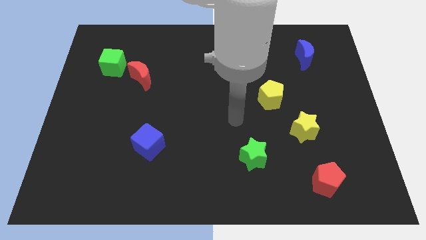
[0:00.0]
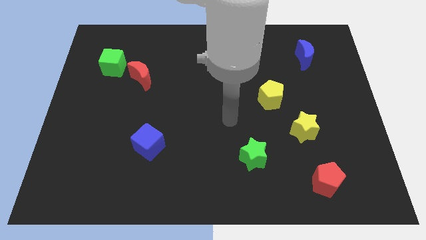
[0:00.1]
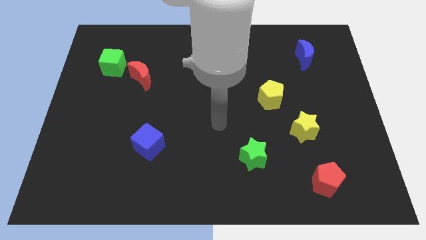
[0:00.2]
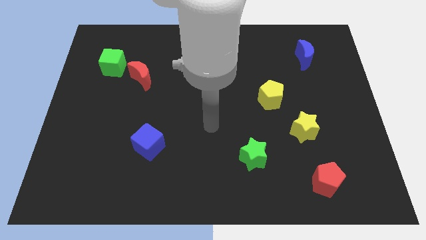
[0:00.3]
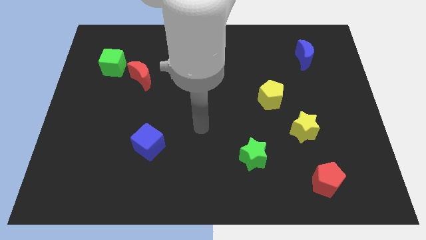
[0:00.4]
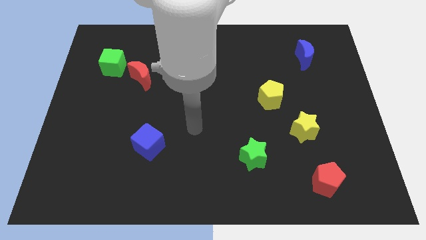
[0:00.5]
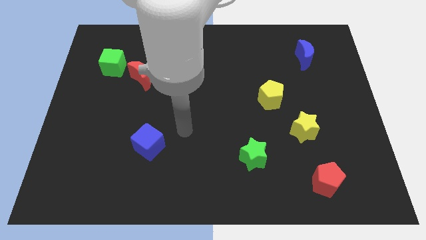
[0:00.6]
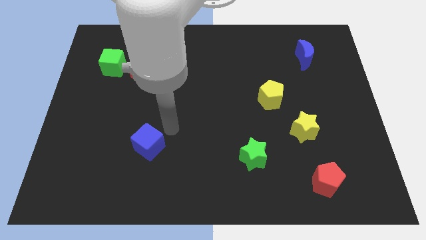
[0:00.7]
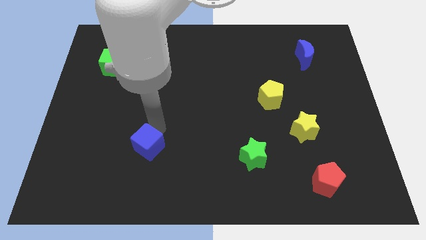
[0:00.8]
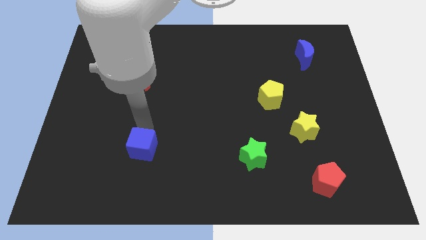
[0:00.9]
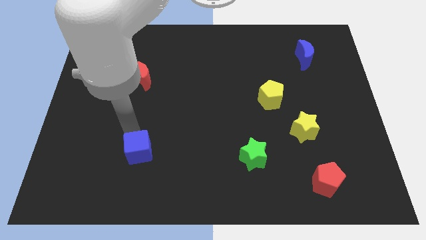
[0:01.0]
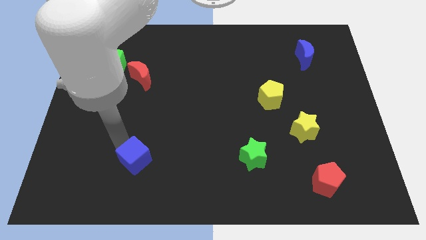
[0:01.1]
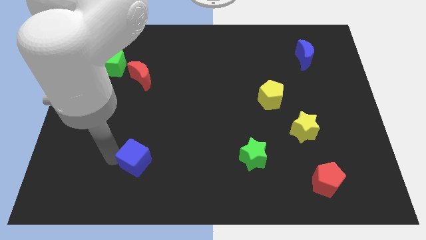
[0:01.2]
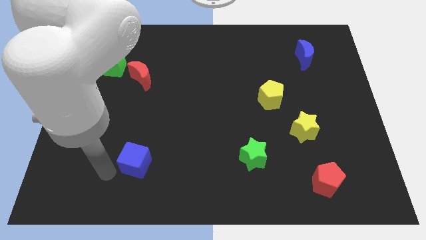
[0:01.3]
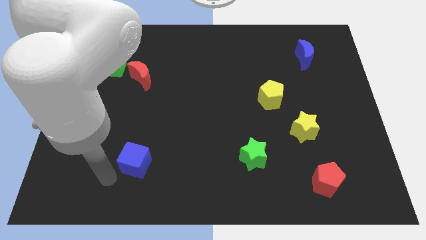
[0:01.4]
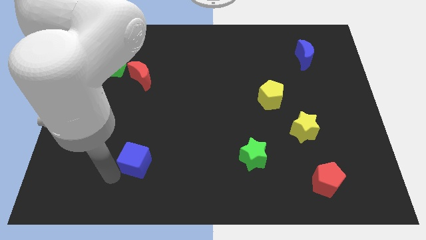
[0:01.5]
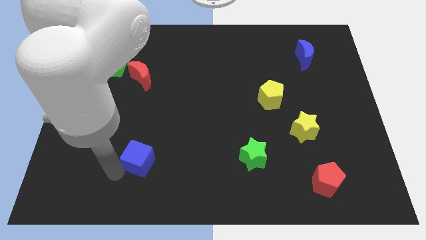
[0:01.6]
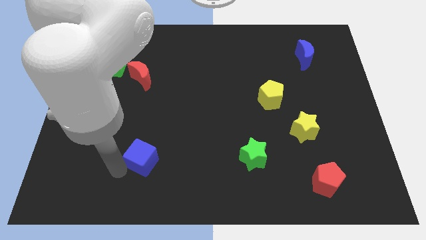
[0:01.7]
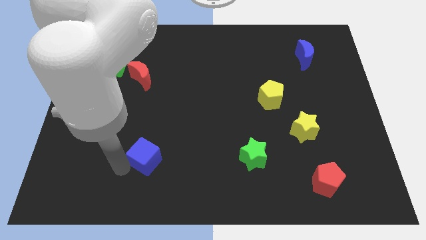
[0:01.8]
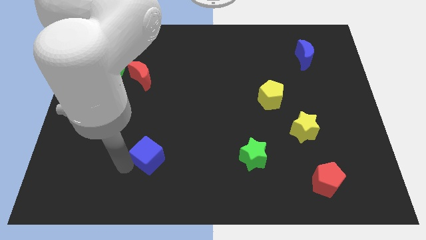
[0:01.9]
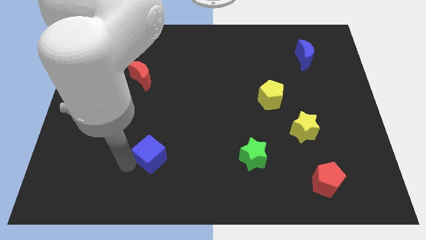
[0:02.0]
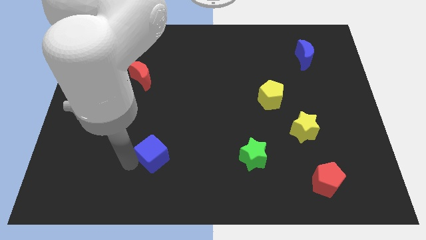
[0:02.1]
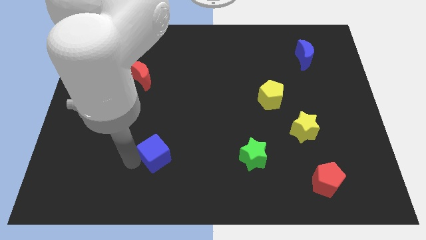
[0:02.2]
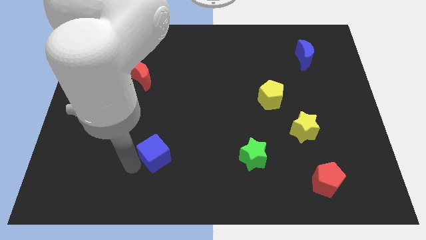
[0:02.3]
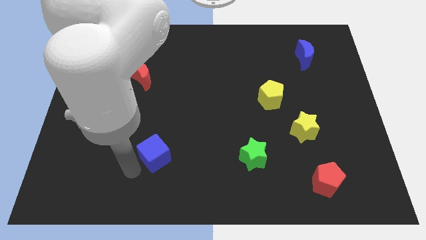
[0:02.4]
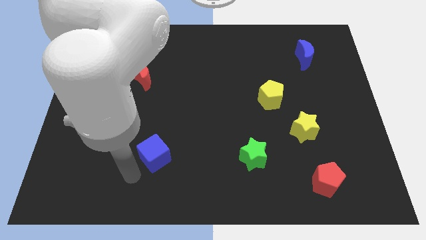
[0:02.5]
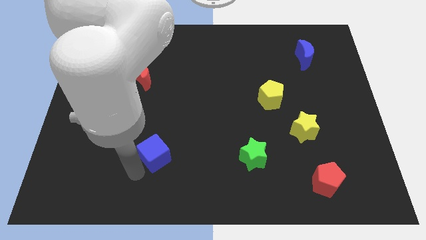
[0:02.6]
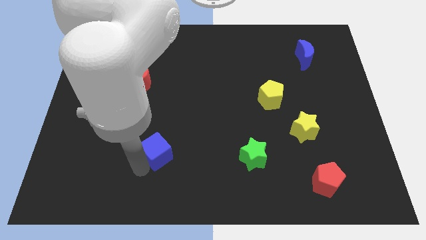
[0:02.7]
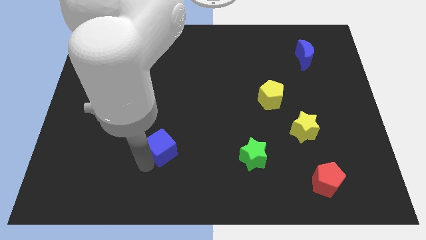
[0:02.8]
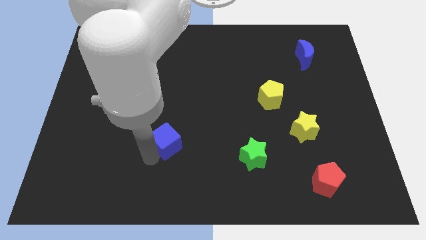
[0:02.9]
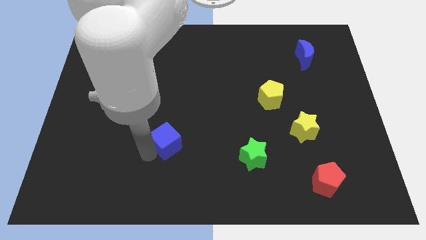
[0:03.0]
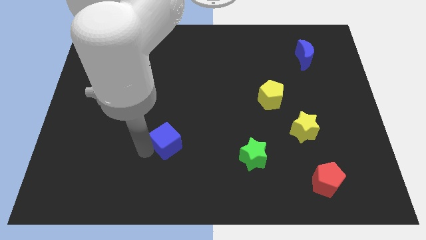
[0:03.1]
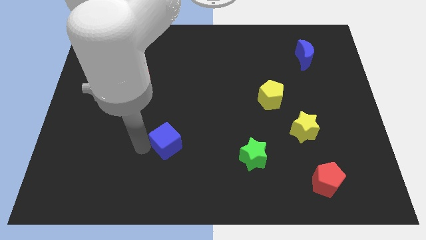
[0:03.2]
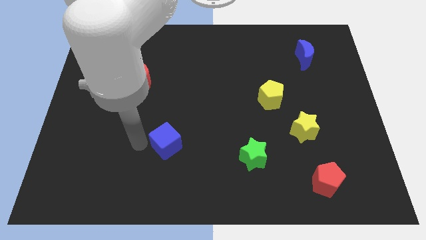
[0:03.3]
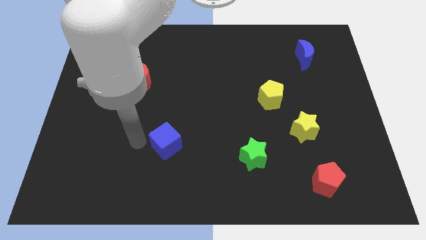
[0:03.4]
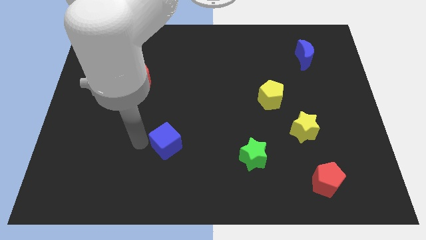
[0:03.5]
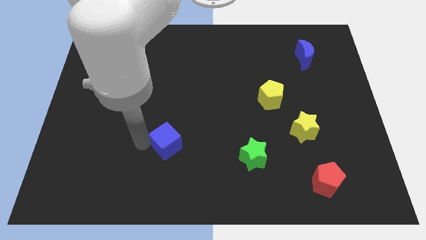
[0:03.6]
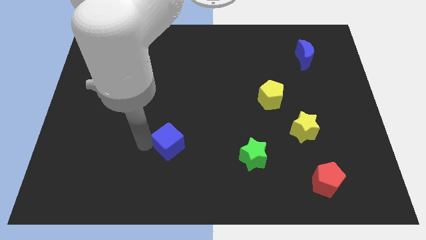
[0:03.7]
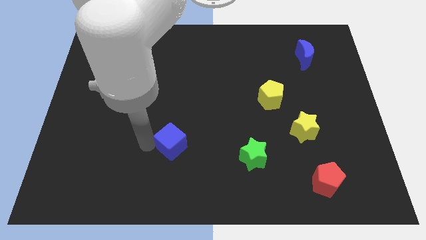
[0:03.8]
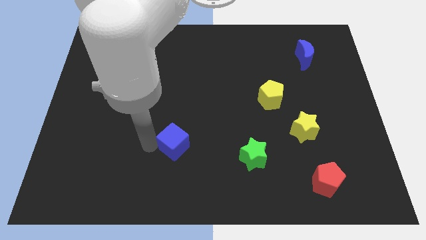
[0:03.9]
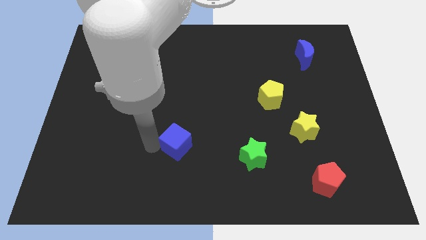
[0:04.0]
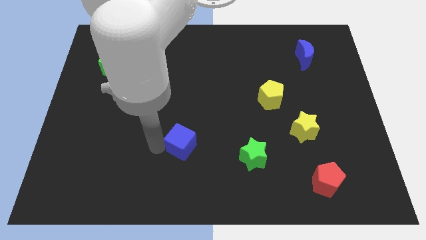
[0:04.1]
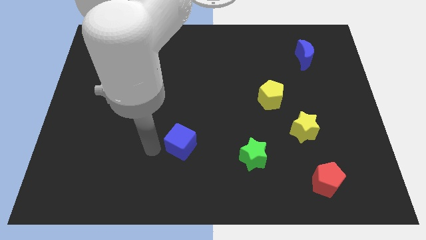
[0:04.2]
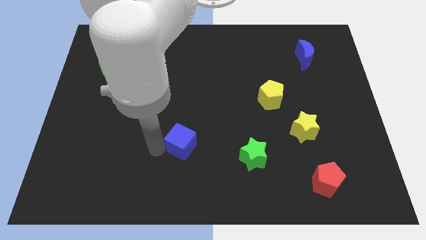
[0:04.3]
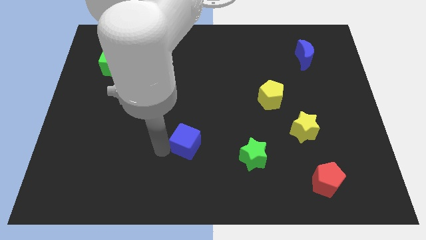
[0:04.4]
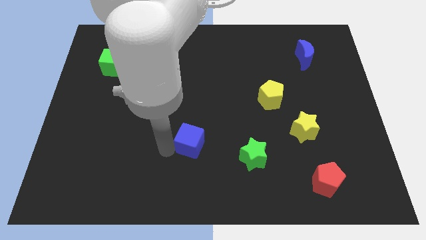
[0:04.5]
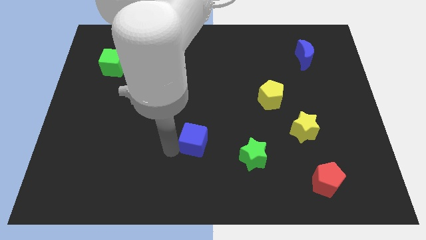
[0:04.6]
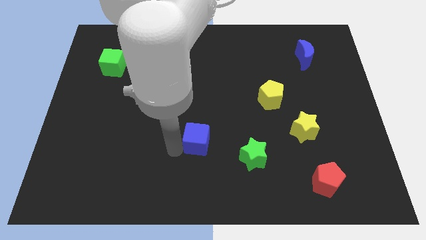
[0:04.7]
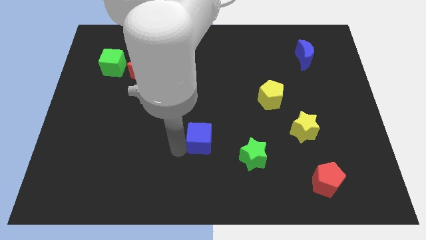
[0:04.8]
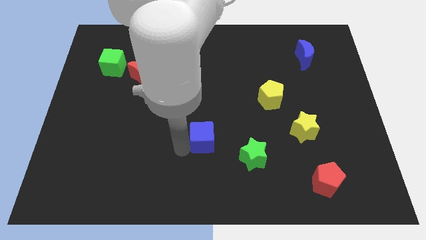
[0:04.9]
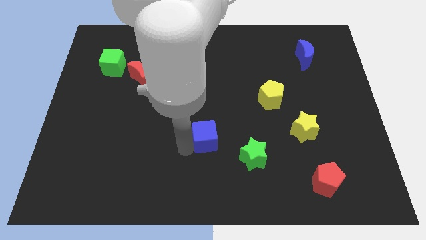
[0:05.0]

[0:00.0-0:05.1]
slide the blue cube to the top left of the green star

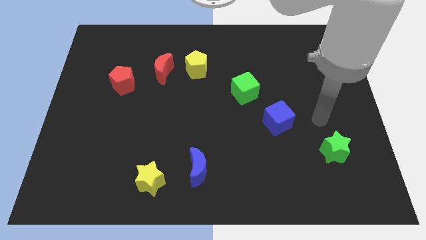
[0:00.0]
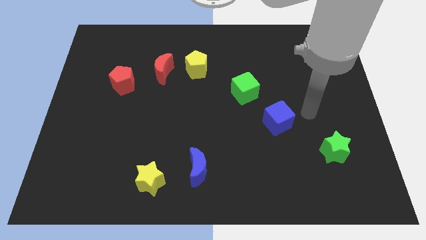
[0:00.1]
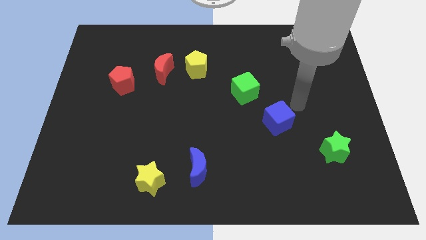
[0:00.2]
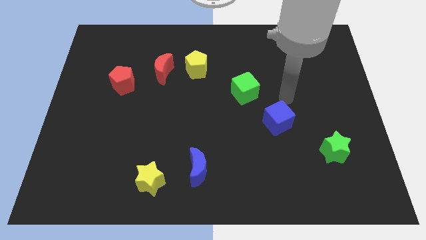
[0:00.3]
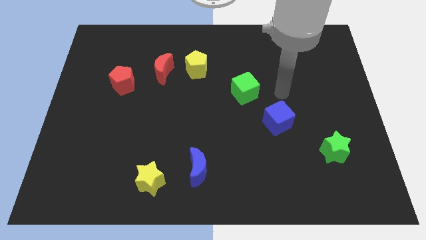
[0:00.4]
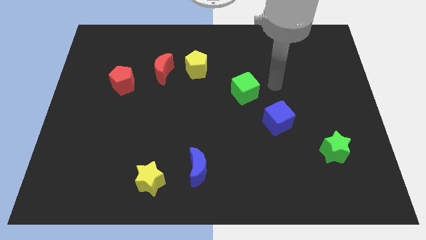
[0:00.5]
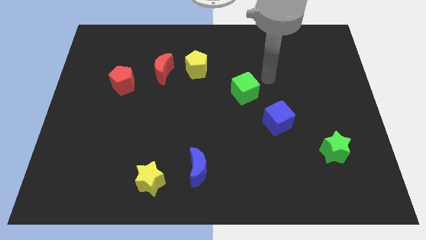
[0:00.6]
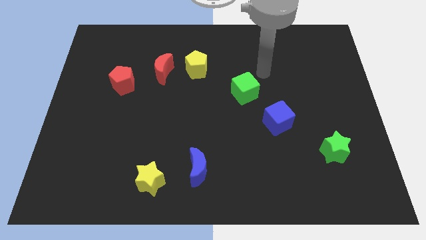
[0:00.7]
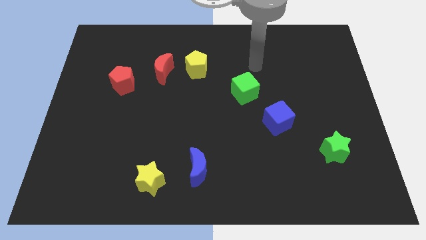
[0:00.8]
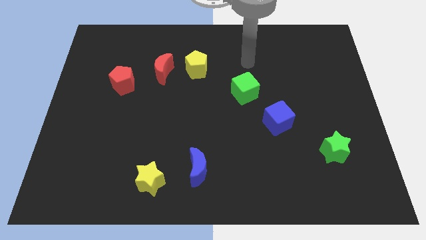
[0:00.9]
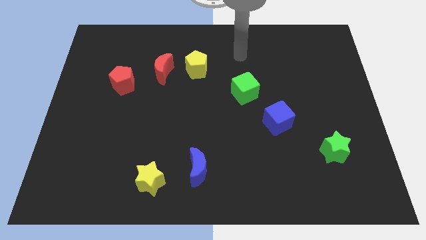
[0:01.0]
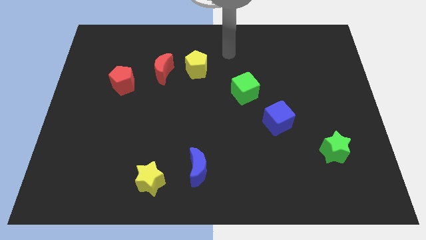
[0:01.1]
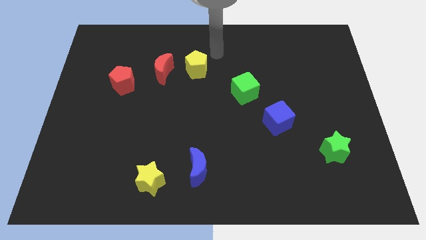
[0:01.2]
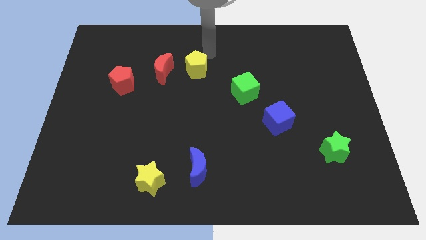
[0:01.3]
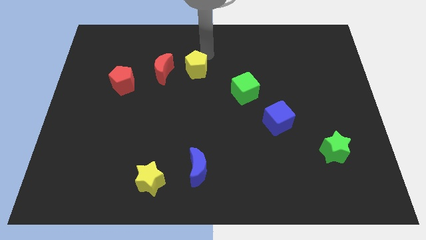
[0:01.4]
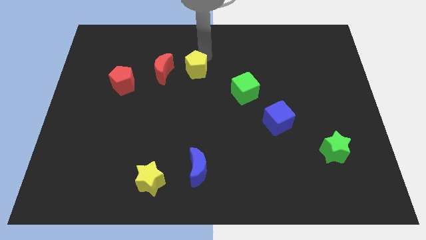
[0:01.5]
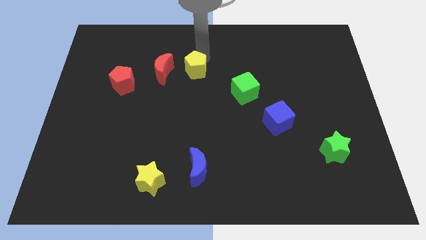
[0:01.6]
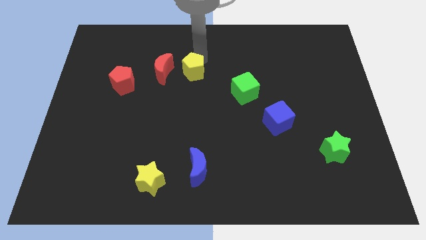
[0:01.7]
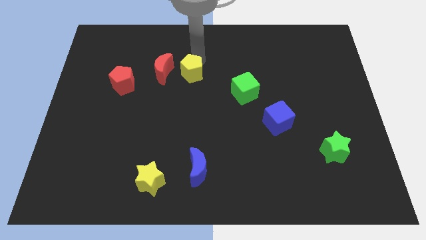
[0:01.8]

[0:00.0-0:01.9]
slide the yellow pentagon to the bottom right side of the red moon
